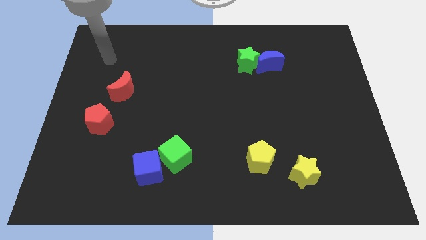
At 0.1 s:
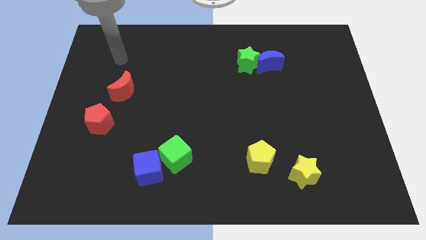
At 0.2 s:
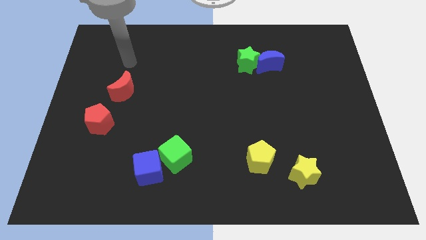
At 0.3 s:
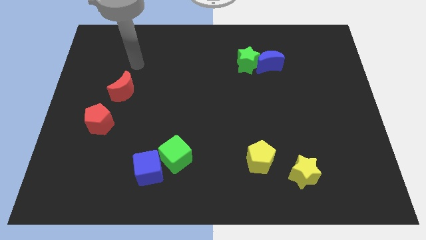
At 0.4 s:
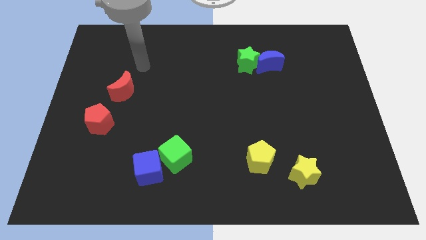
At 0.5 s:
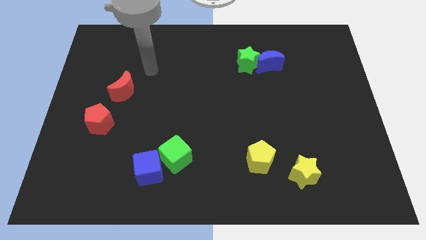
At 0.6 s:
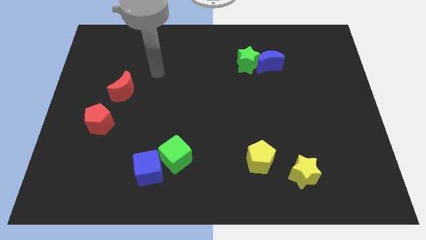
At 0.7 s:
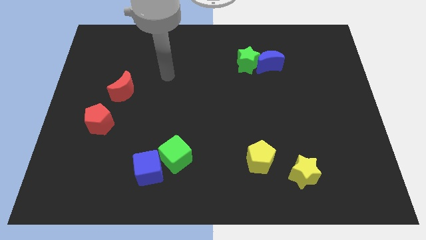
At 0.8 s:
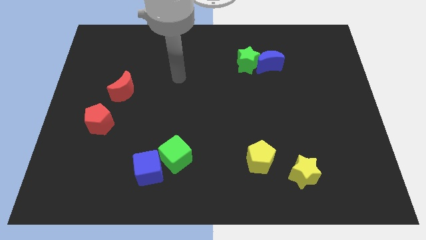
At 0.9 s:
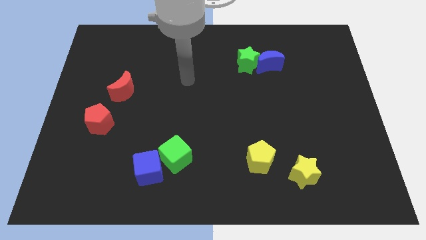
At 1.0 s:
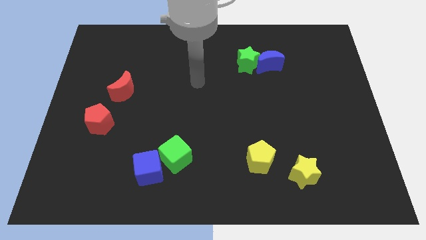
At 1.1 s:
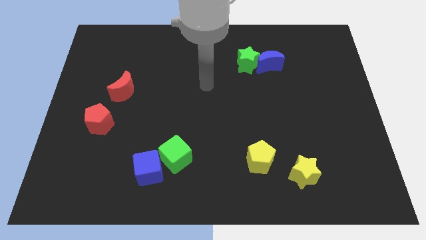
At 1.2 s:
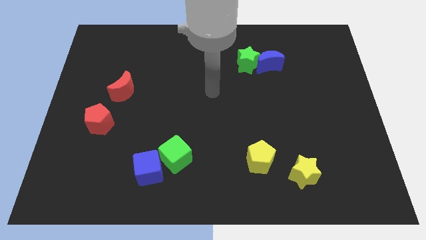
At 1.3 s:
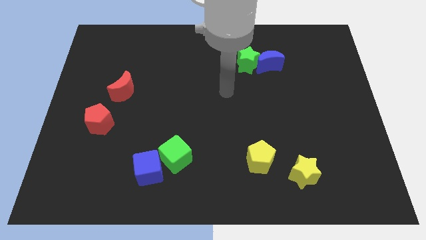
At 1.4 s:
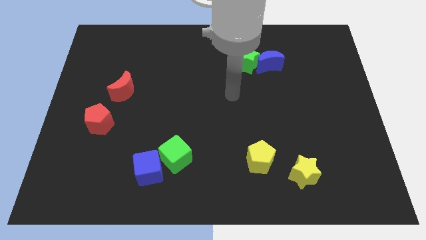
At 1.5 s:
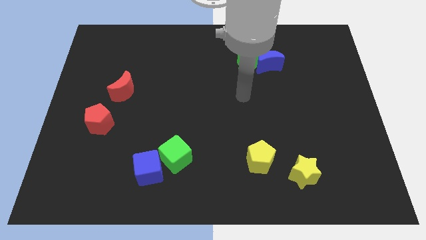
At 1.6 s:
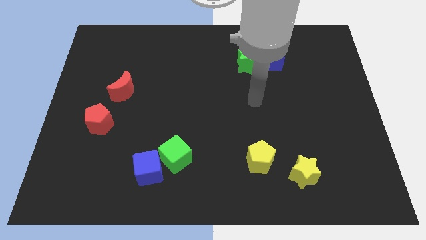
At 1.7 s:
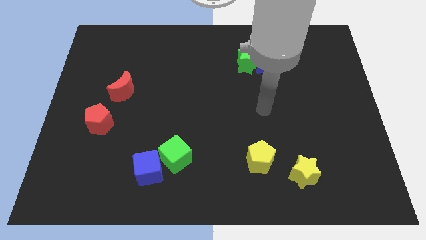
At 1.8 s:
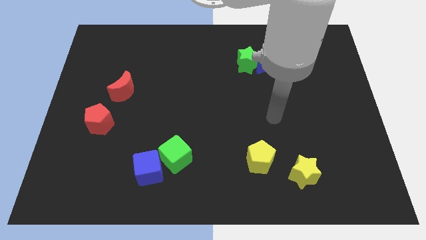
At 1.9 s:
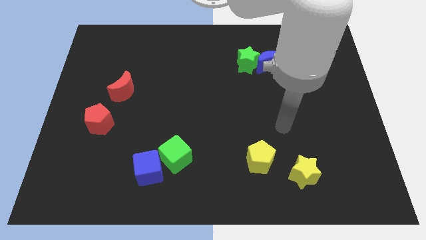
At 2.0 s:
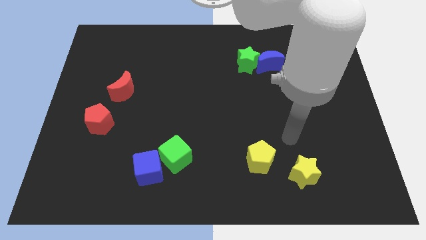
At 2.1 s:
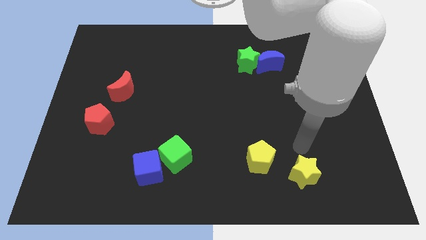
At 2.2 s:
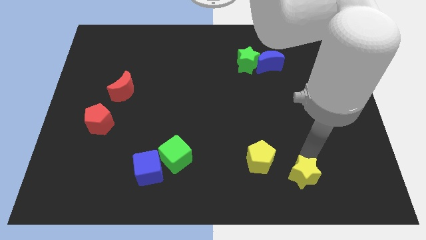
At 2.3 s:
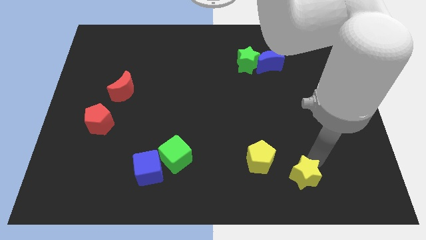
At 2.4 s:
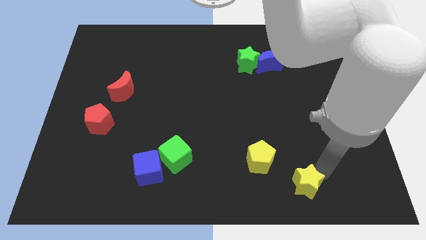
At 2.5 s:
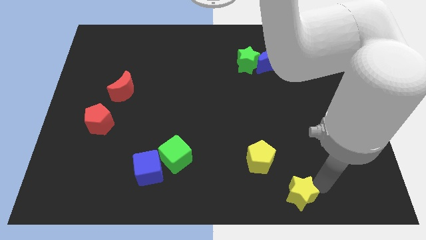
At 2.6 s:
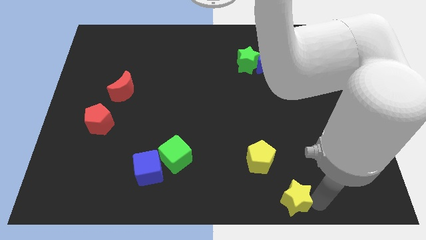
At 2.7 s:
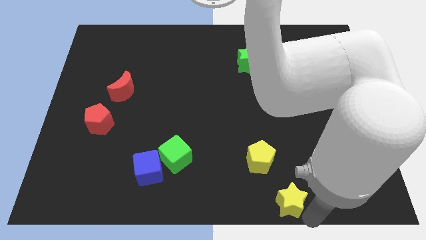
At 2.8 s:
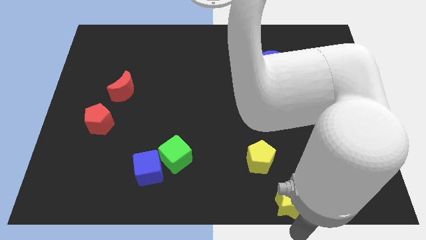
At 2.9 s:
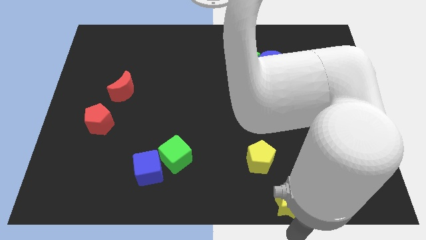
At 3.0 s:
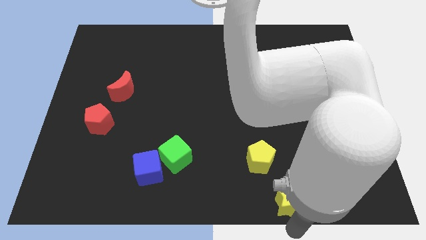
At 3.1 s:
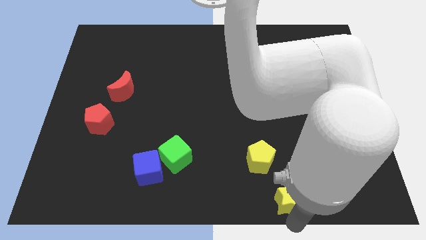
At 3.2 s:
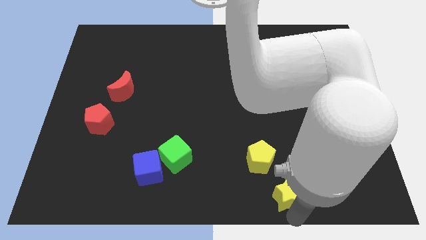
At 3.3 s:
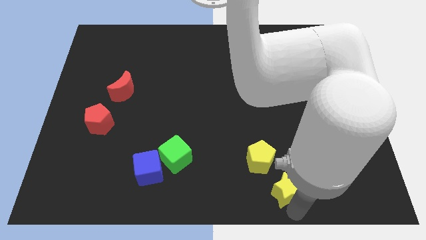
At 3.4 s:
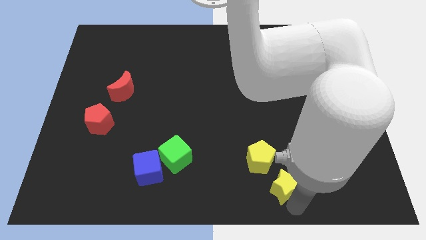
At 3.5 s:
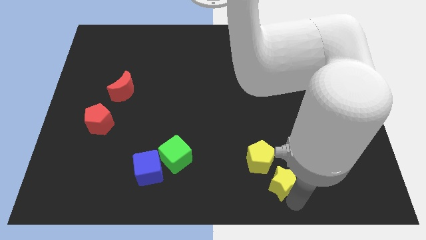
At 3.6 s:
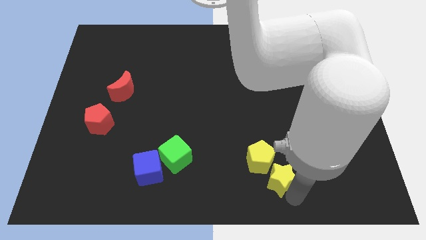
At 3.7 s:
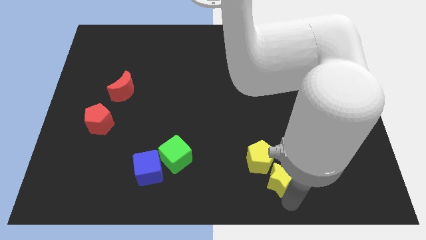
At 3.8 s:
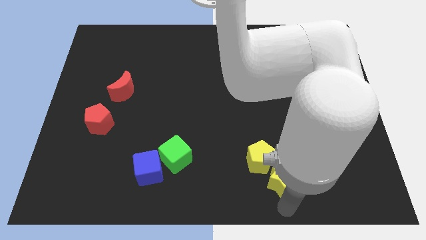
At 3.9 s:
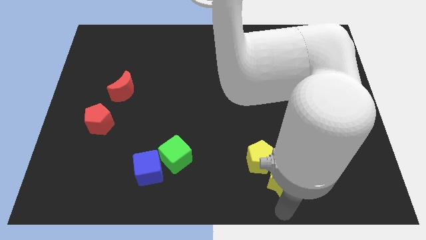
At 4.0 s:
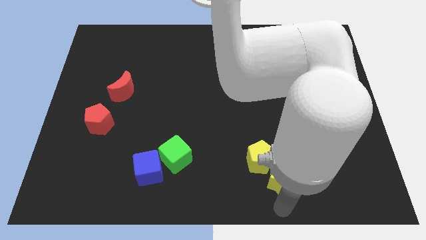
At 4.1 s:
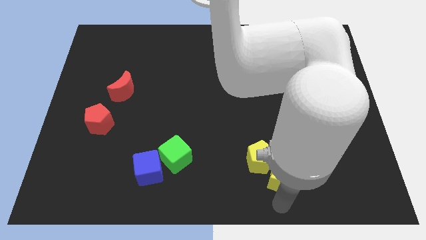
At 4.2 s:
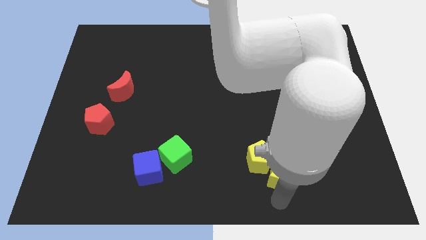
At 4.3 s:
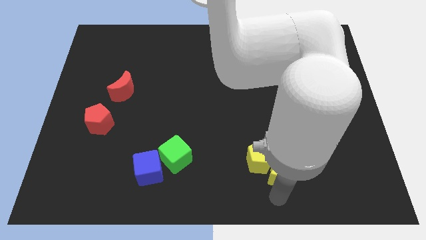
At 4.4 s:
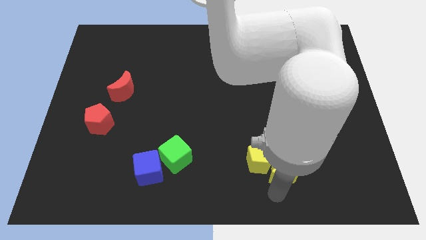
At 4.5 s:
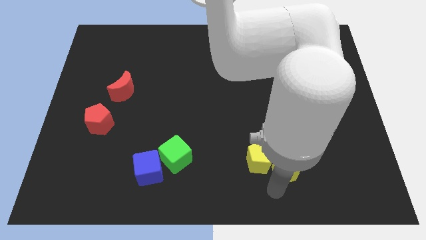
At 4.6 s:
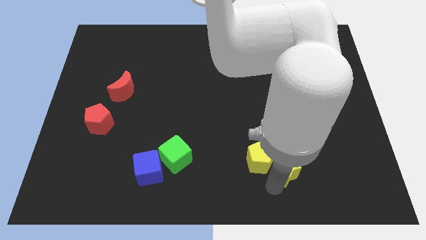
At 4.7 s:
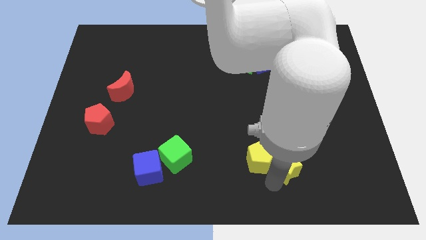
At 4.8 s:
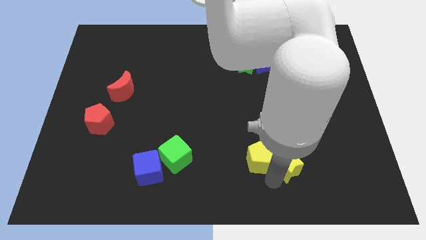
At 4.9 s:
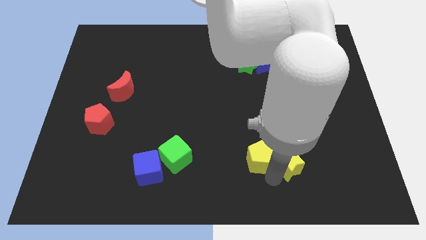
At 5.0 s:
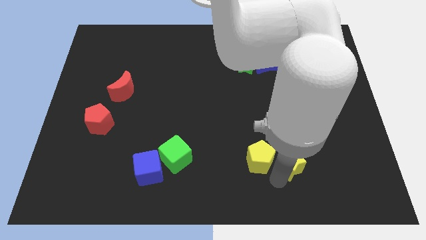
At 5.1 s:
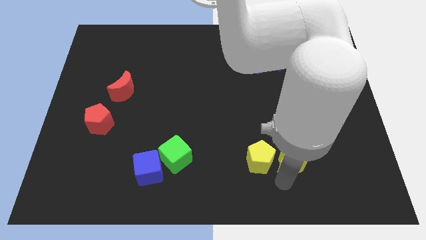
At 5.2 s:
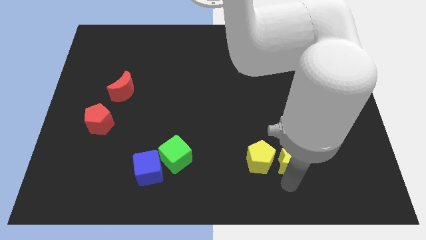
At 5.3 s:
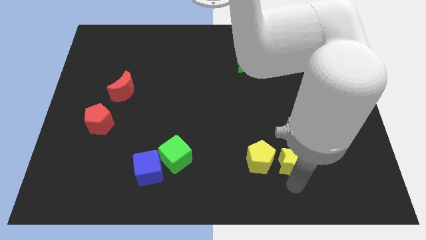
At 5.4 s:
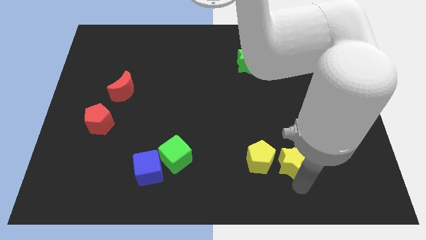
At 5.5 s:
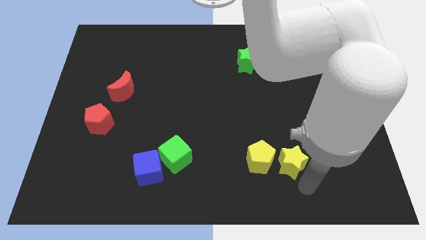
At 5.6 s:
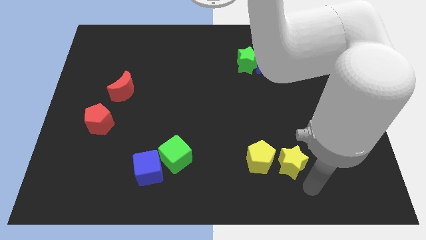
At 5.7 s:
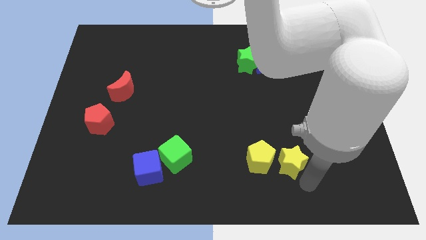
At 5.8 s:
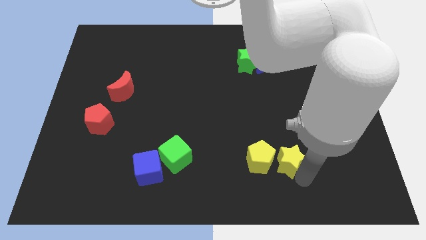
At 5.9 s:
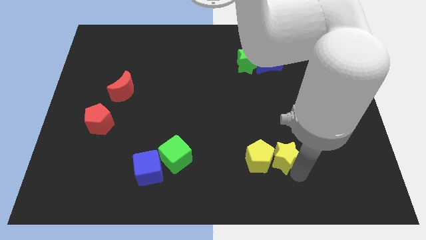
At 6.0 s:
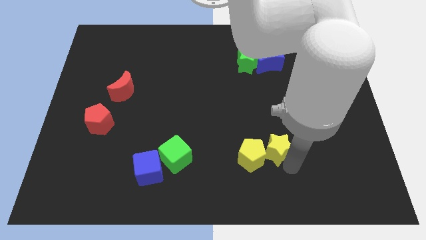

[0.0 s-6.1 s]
slightly slide the yellow star up and then to the left

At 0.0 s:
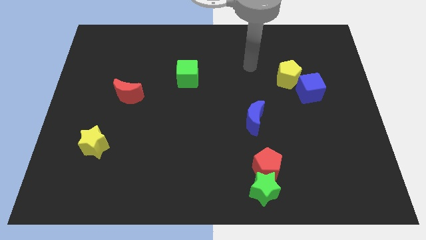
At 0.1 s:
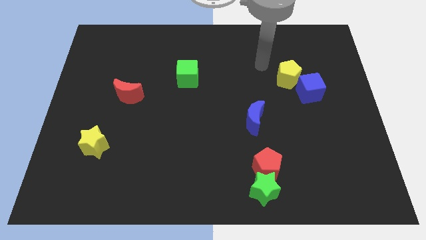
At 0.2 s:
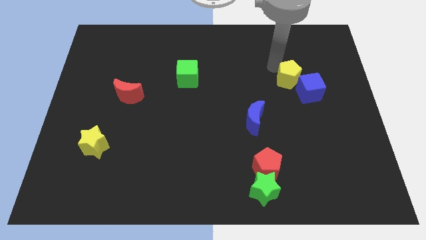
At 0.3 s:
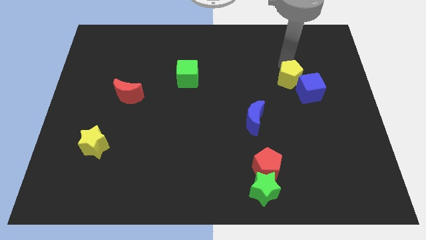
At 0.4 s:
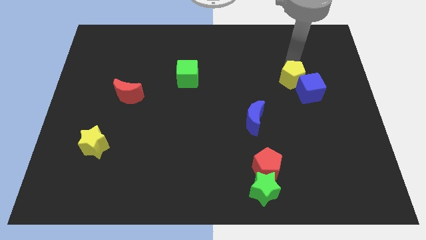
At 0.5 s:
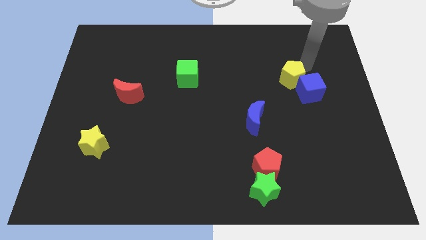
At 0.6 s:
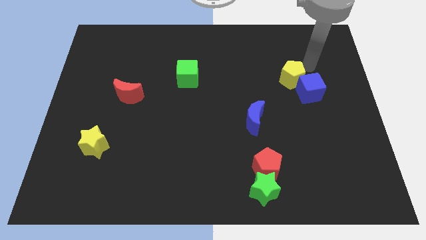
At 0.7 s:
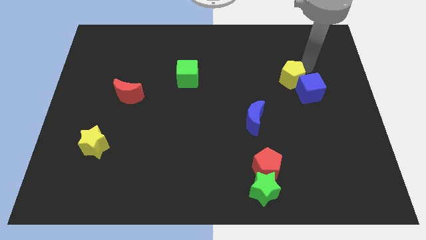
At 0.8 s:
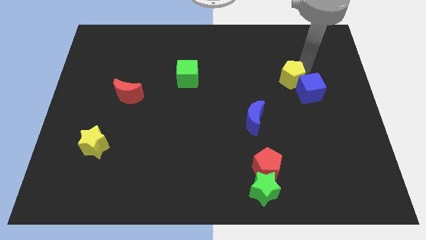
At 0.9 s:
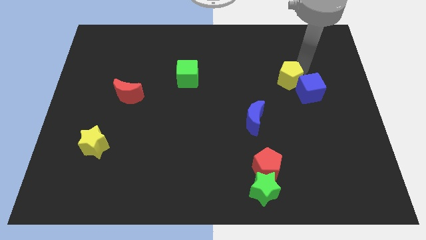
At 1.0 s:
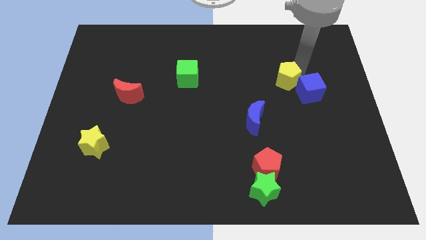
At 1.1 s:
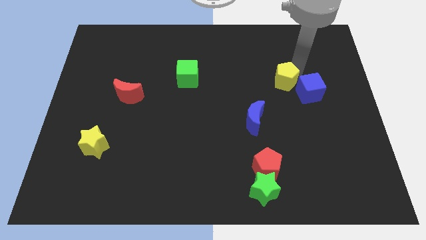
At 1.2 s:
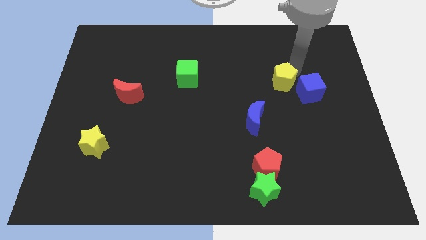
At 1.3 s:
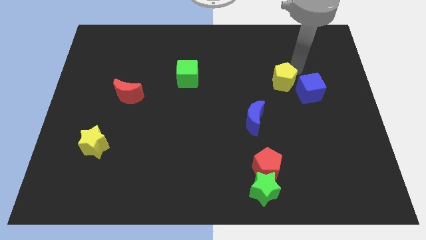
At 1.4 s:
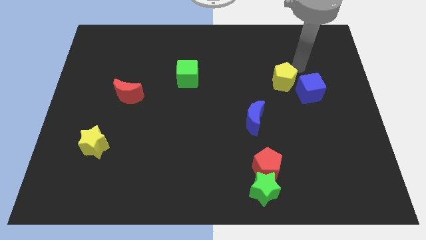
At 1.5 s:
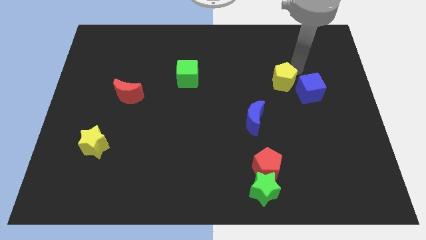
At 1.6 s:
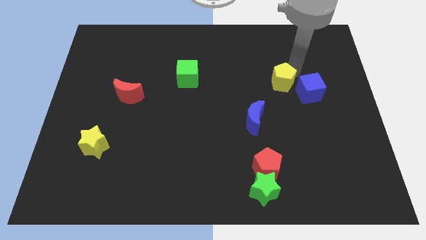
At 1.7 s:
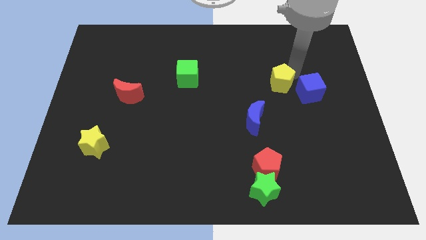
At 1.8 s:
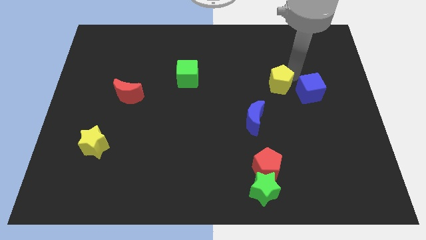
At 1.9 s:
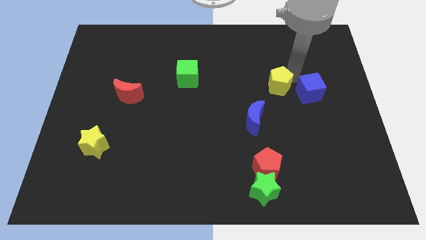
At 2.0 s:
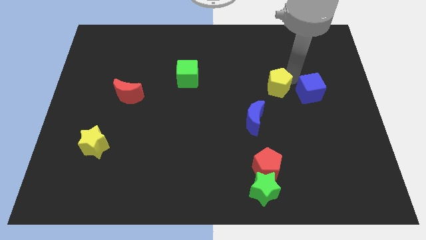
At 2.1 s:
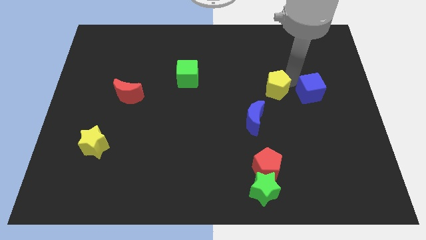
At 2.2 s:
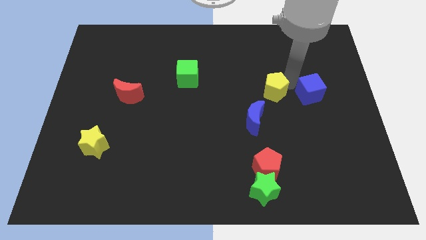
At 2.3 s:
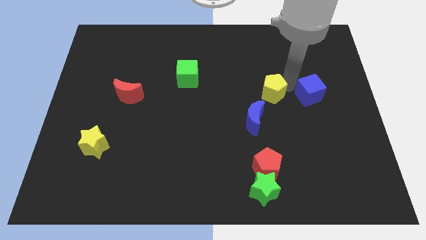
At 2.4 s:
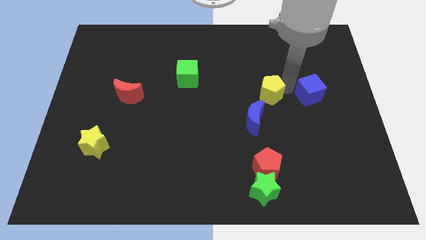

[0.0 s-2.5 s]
push the yellow pentagon somewhat downwards and left diagonally
